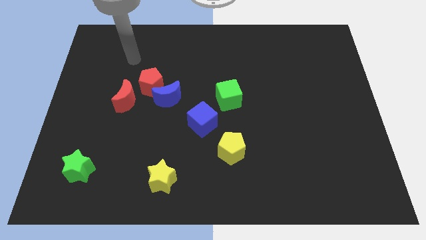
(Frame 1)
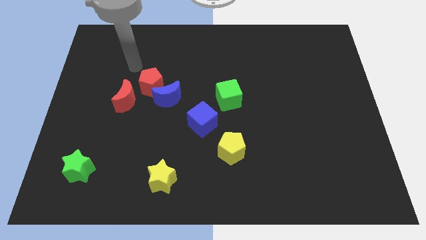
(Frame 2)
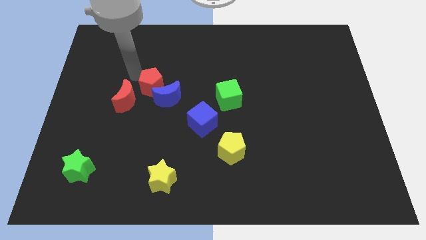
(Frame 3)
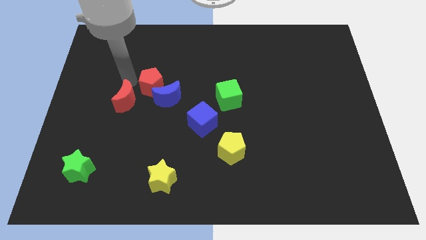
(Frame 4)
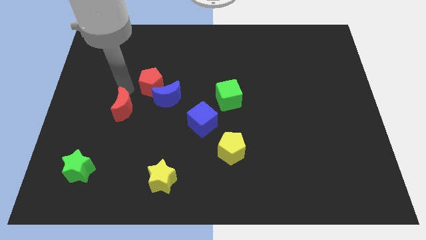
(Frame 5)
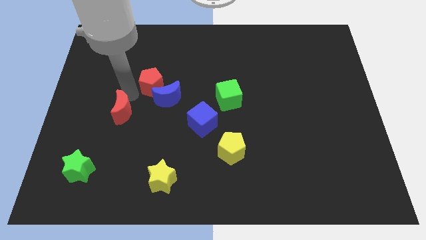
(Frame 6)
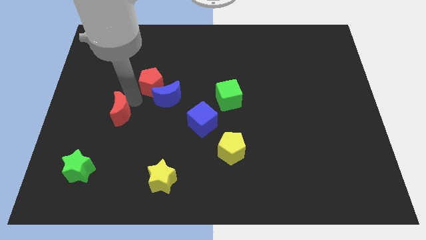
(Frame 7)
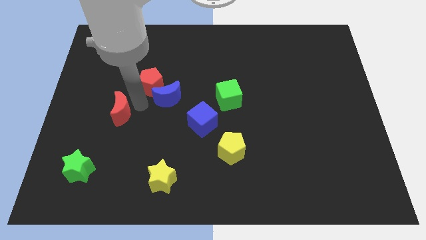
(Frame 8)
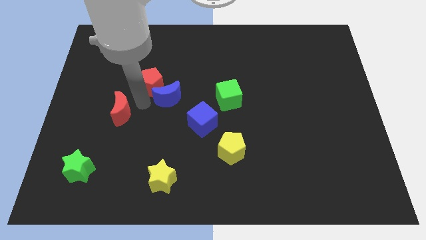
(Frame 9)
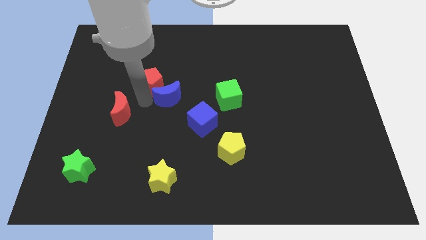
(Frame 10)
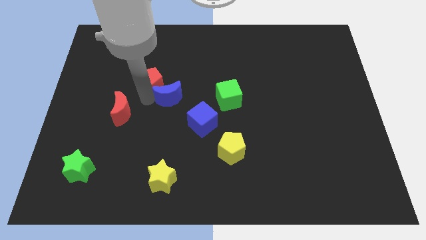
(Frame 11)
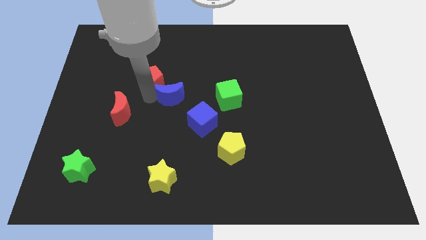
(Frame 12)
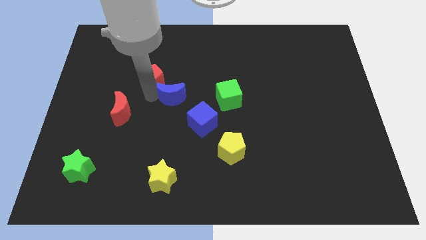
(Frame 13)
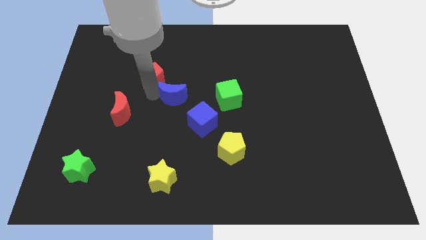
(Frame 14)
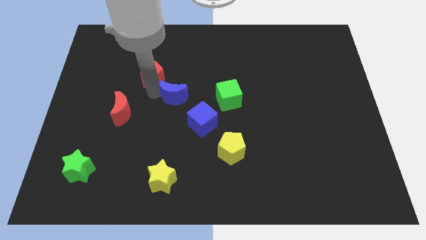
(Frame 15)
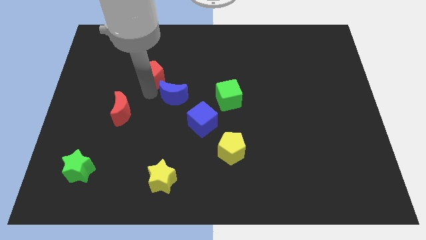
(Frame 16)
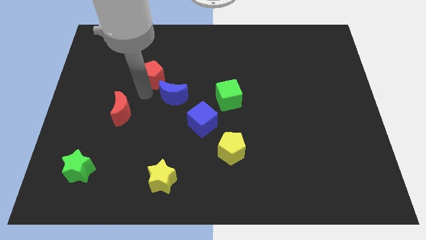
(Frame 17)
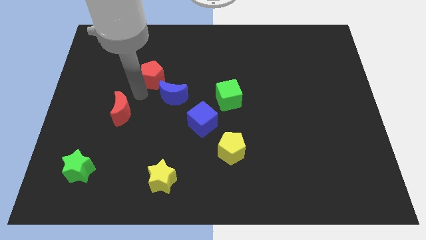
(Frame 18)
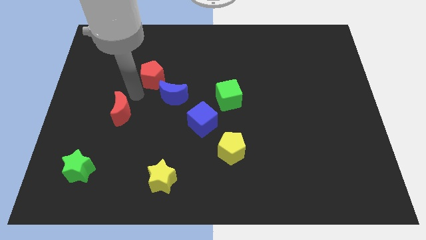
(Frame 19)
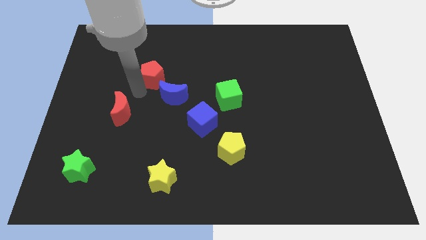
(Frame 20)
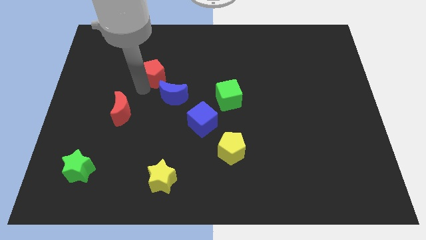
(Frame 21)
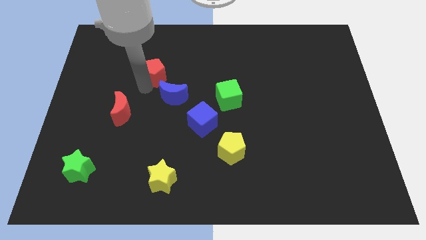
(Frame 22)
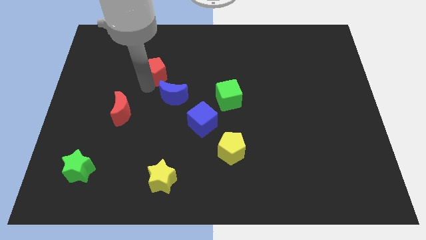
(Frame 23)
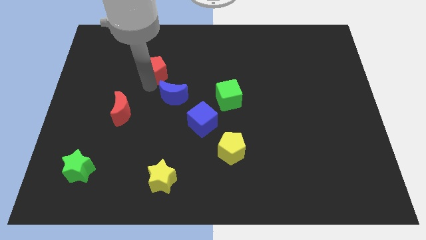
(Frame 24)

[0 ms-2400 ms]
separate the red pentagon from the blue moon and red moon

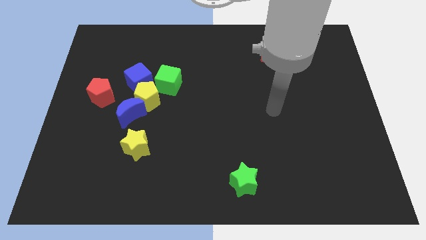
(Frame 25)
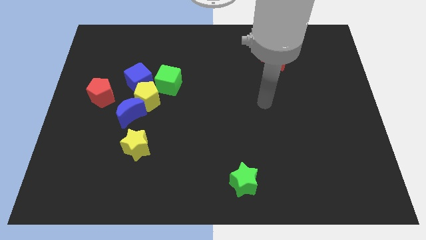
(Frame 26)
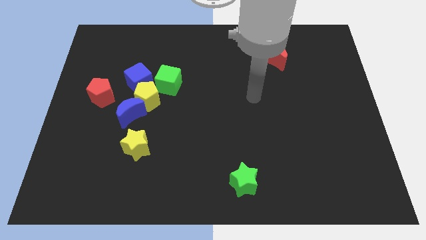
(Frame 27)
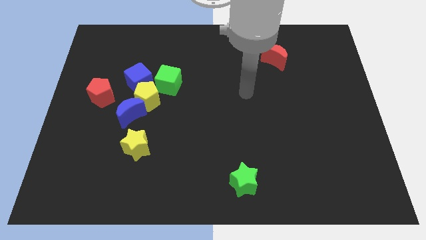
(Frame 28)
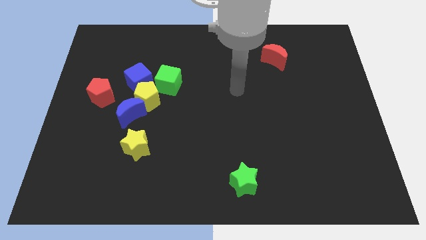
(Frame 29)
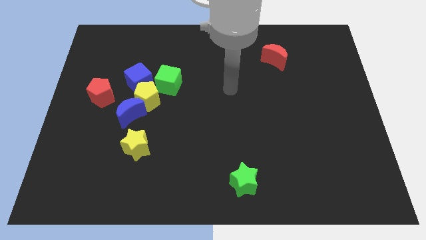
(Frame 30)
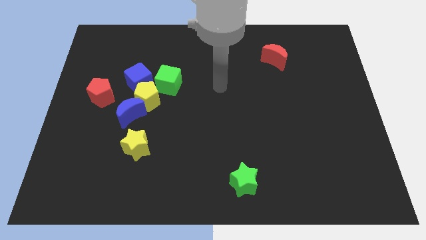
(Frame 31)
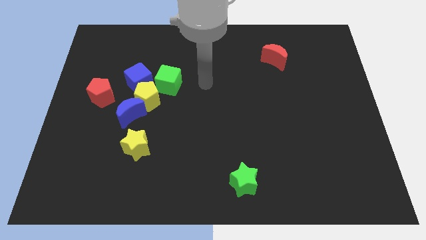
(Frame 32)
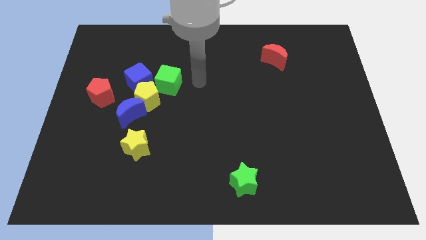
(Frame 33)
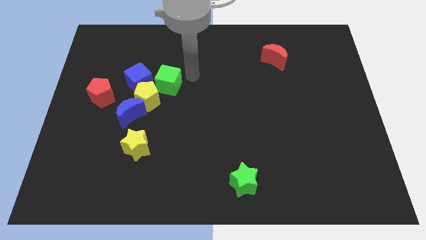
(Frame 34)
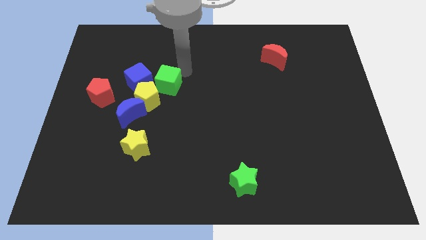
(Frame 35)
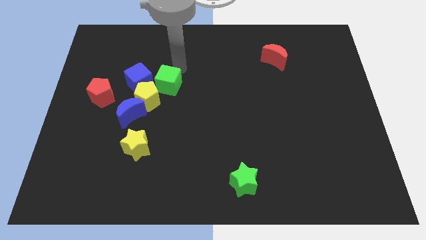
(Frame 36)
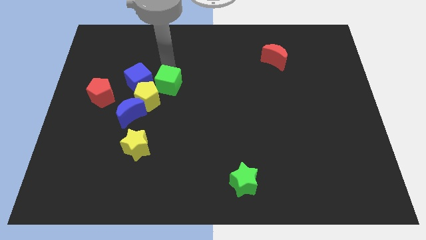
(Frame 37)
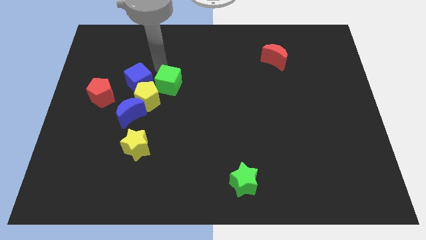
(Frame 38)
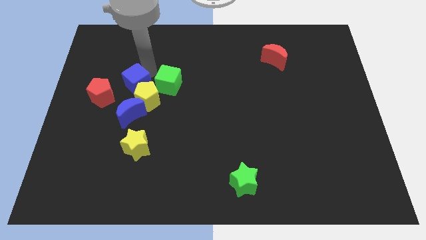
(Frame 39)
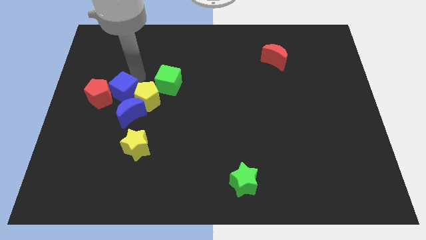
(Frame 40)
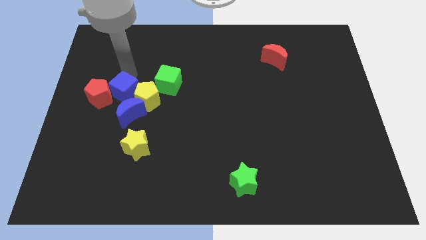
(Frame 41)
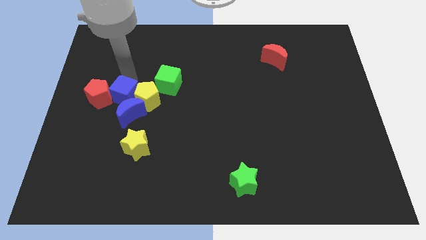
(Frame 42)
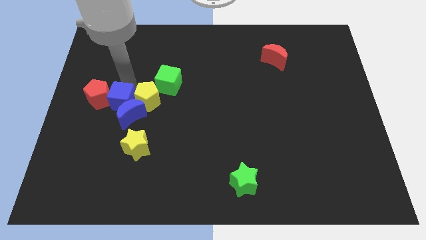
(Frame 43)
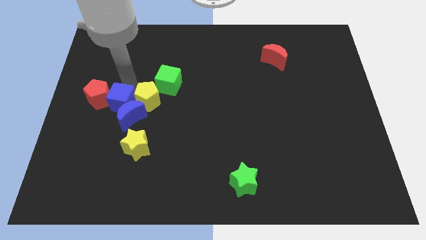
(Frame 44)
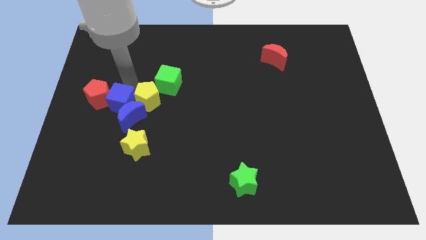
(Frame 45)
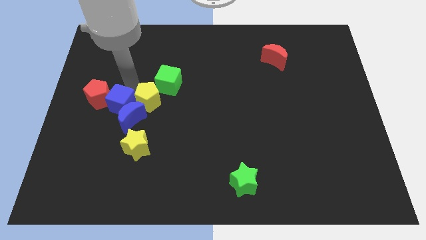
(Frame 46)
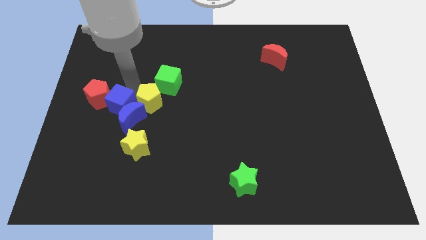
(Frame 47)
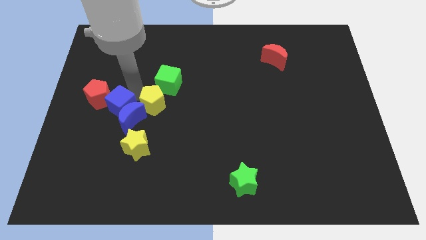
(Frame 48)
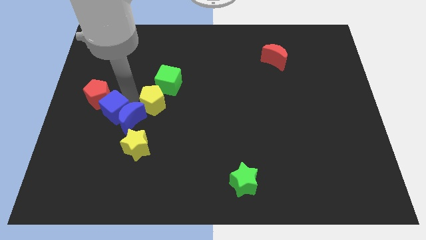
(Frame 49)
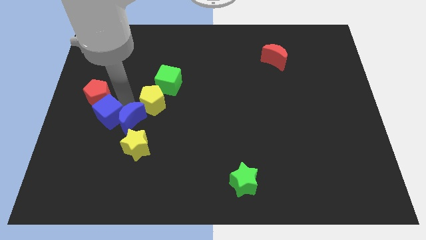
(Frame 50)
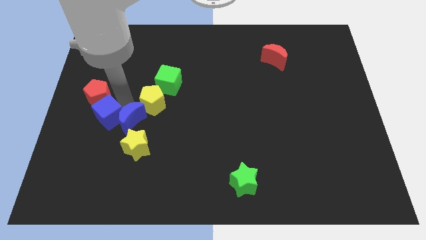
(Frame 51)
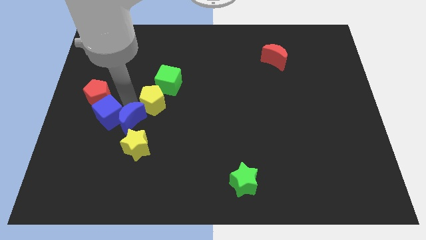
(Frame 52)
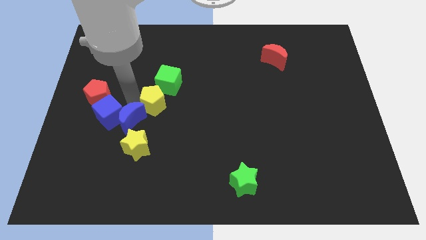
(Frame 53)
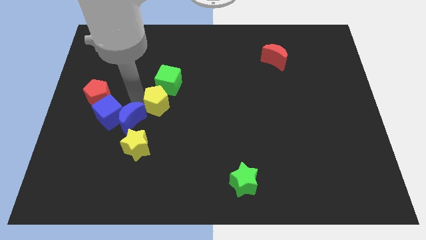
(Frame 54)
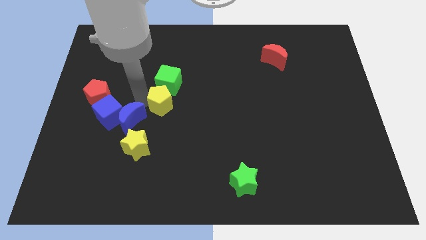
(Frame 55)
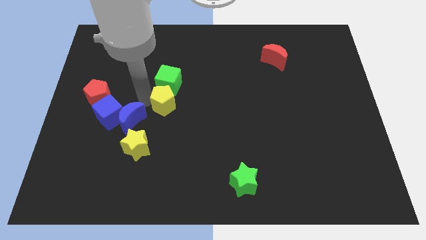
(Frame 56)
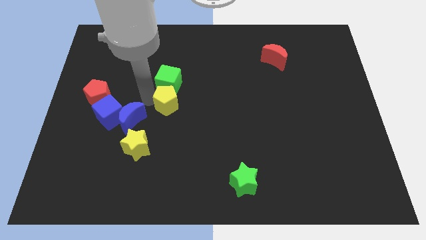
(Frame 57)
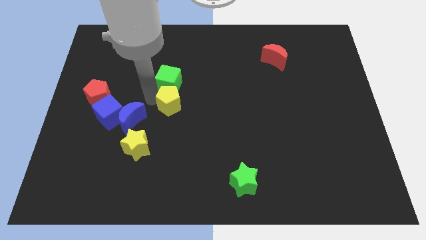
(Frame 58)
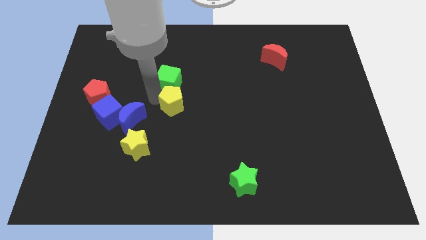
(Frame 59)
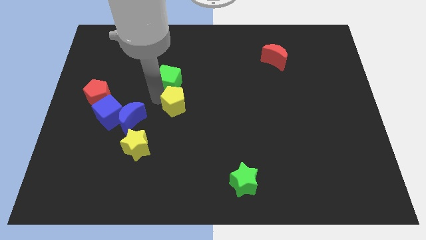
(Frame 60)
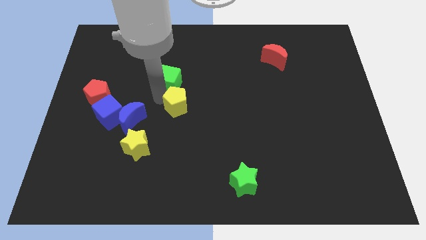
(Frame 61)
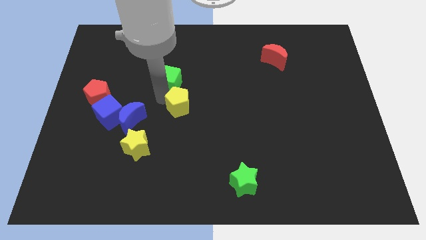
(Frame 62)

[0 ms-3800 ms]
move the yellow pentagon away from the blue moon, blue cube, and green cube

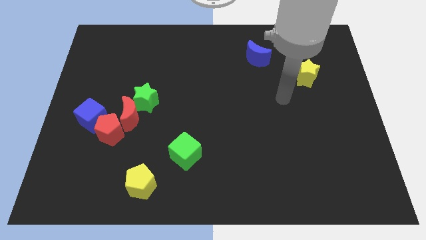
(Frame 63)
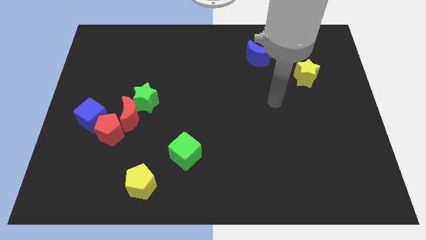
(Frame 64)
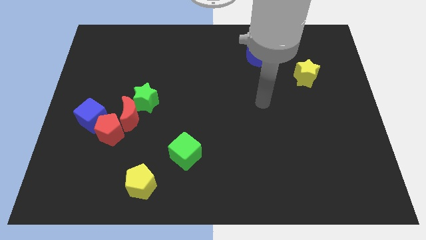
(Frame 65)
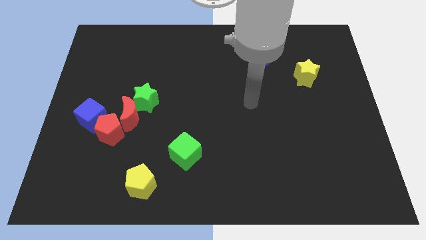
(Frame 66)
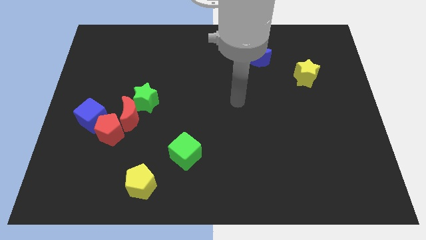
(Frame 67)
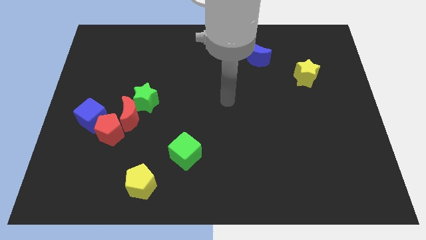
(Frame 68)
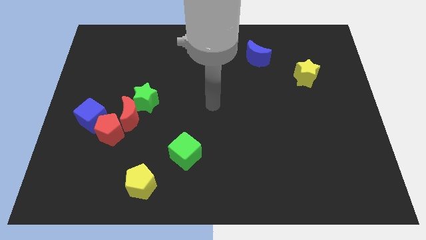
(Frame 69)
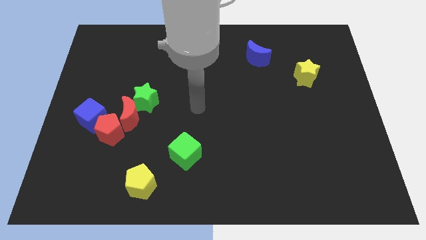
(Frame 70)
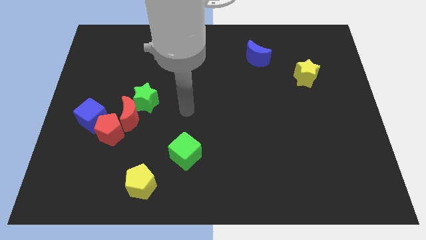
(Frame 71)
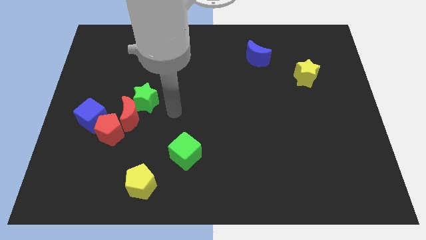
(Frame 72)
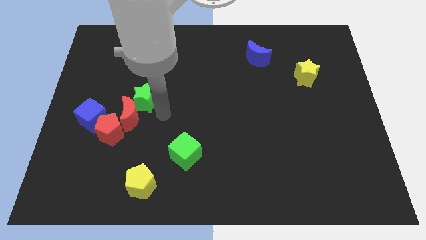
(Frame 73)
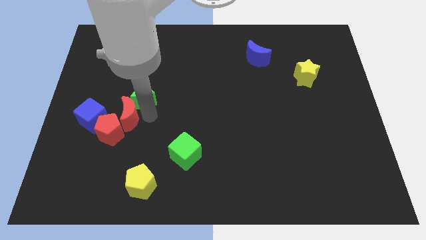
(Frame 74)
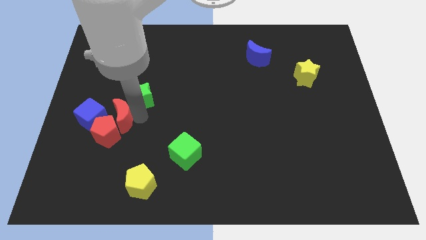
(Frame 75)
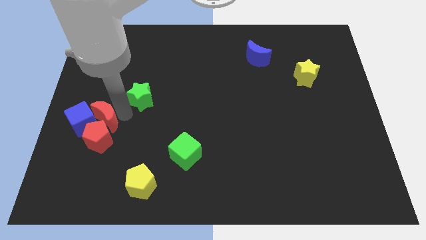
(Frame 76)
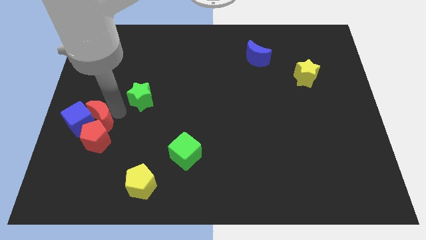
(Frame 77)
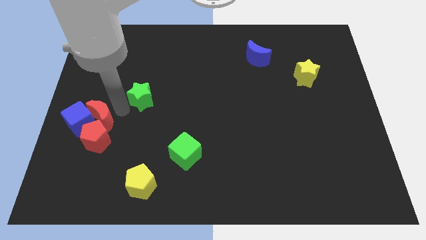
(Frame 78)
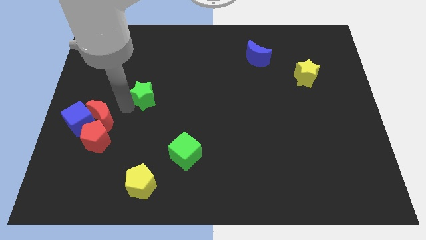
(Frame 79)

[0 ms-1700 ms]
separate the green star from the red moon

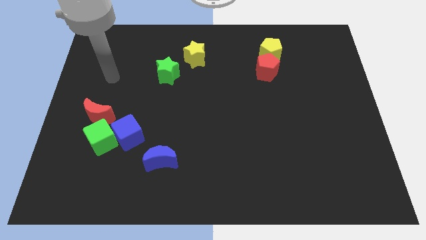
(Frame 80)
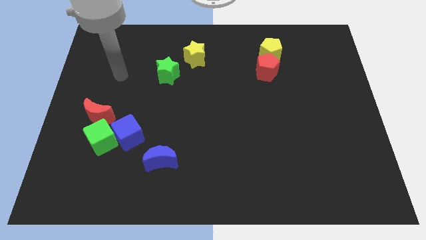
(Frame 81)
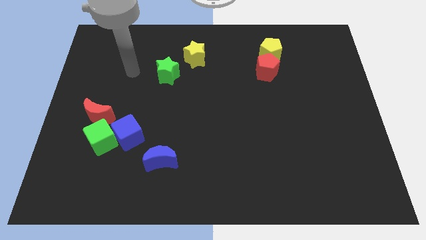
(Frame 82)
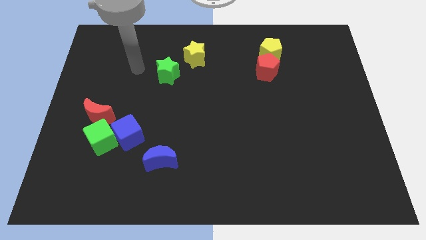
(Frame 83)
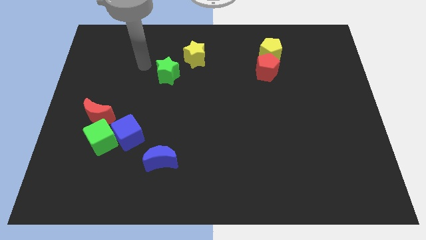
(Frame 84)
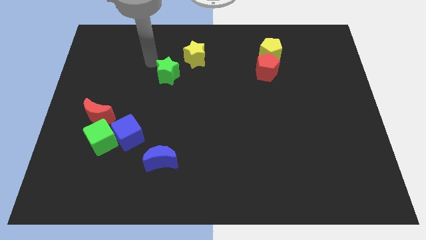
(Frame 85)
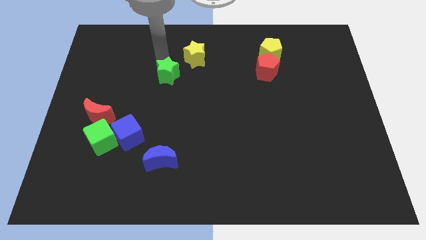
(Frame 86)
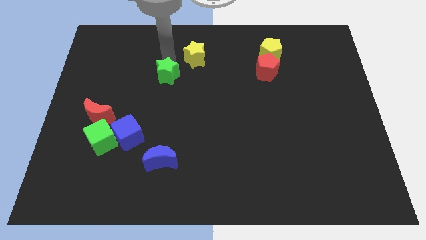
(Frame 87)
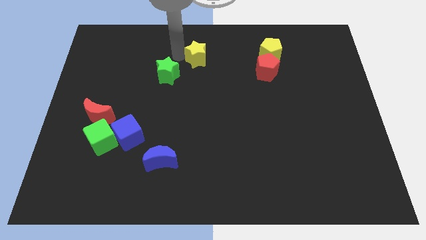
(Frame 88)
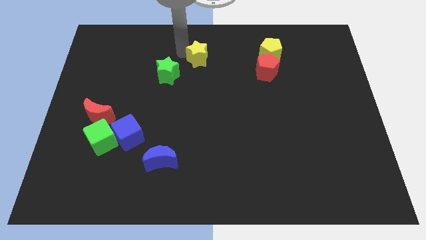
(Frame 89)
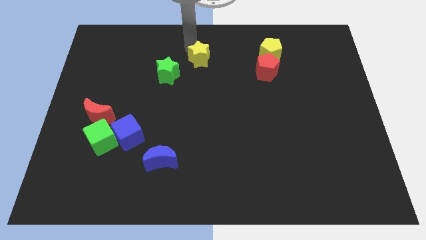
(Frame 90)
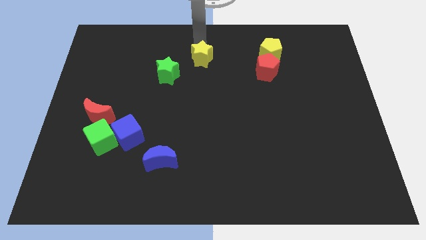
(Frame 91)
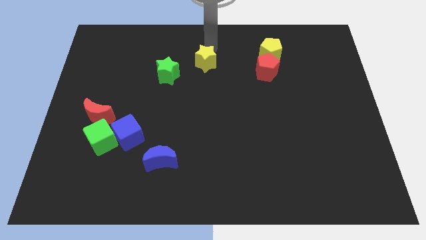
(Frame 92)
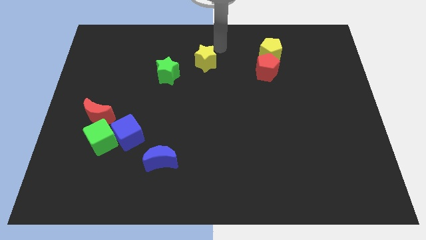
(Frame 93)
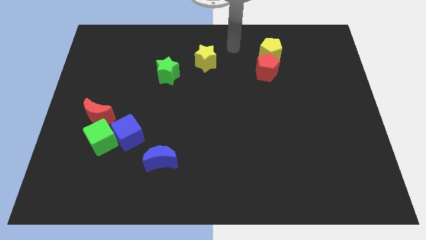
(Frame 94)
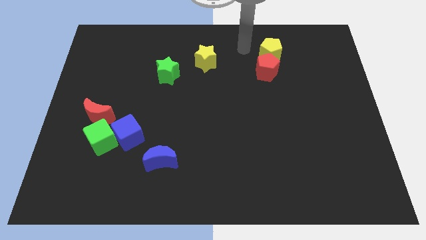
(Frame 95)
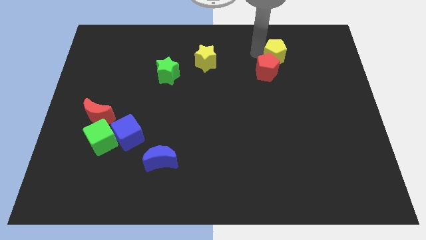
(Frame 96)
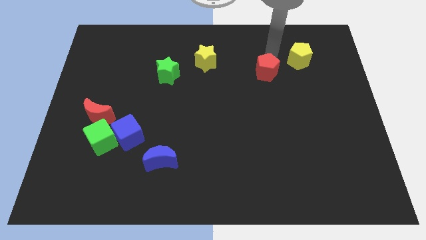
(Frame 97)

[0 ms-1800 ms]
move the red pentagon away from the yellow pentagon
